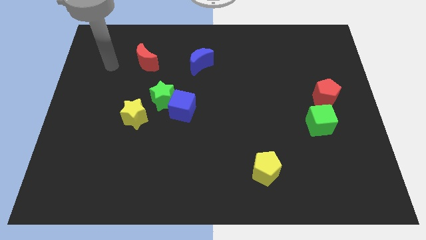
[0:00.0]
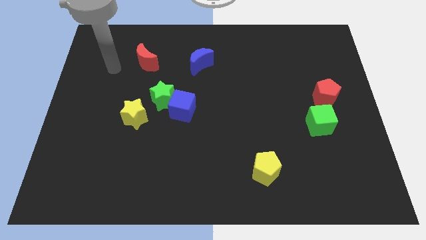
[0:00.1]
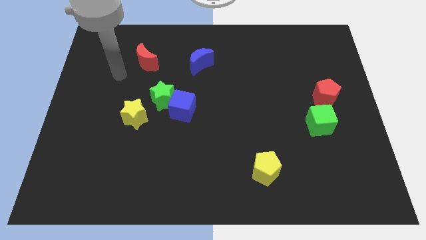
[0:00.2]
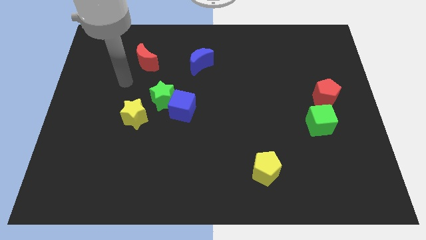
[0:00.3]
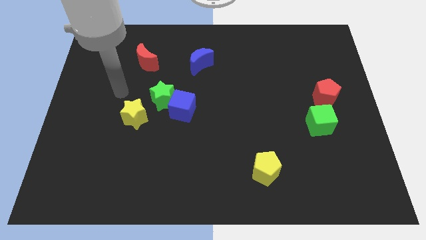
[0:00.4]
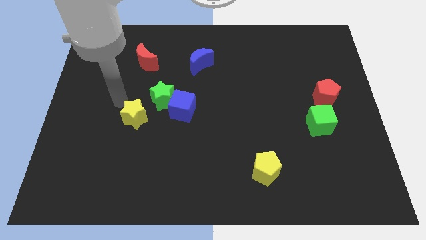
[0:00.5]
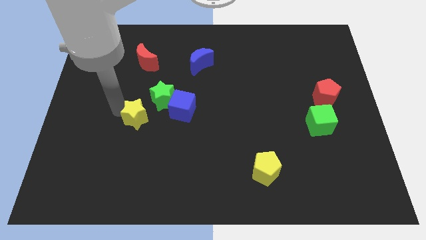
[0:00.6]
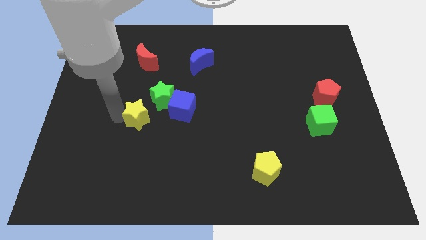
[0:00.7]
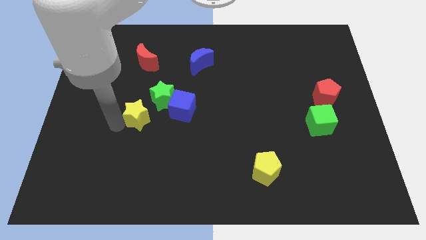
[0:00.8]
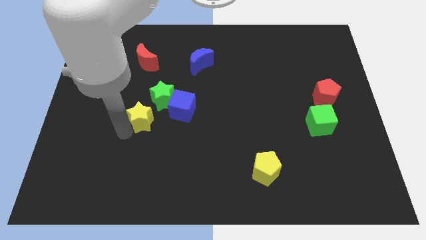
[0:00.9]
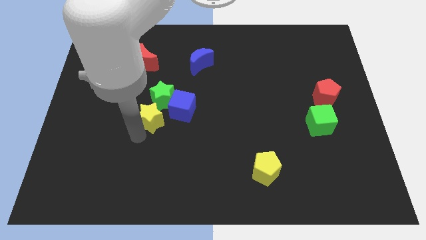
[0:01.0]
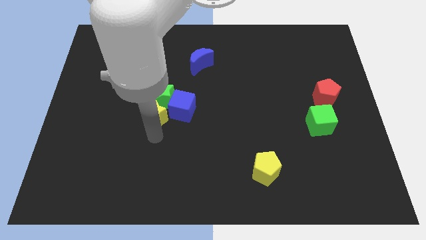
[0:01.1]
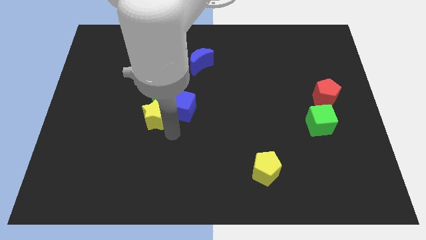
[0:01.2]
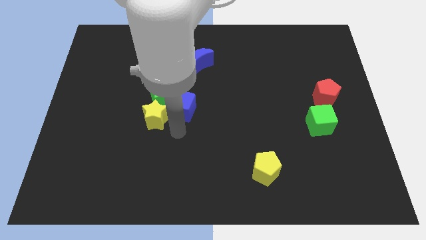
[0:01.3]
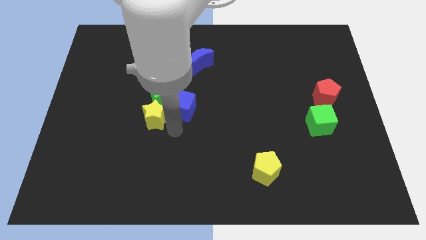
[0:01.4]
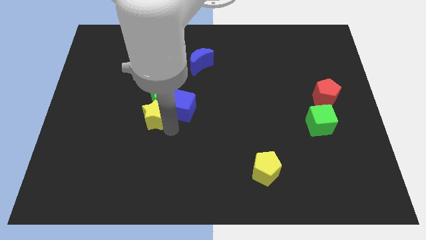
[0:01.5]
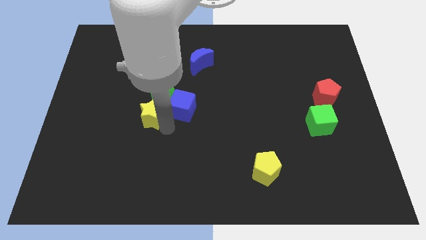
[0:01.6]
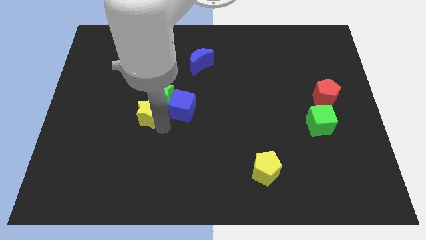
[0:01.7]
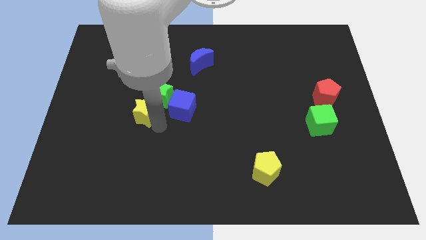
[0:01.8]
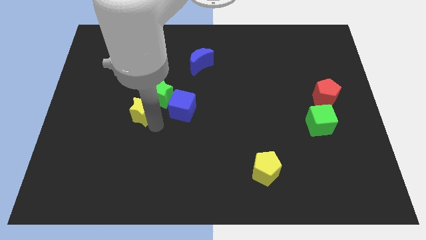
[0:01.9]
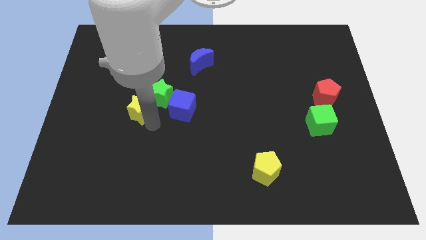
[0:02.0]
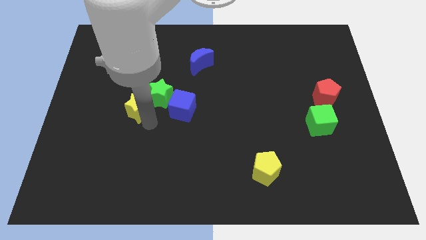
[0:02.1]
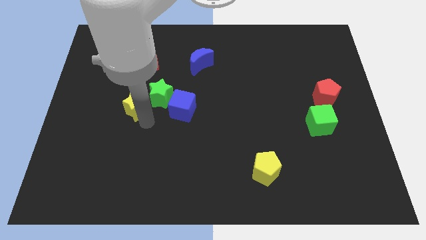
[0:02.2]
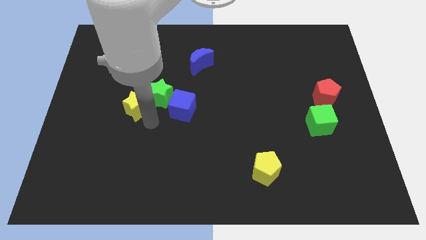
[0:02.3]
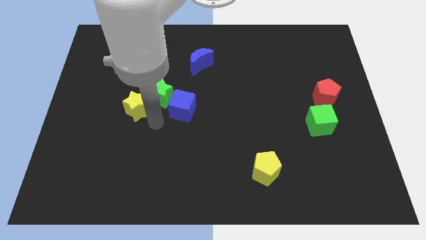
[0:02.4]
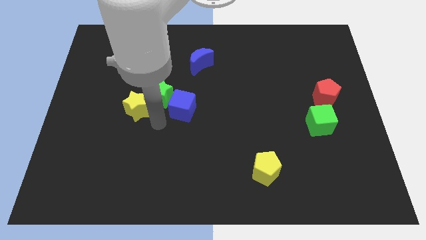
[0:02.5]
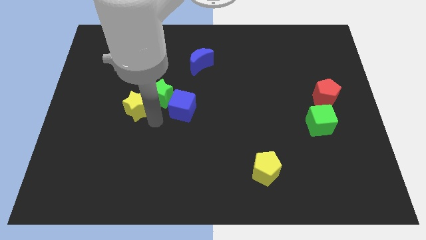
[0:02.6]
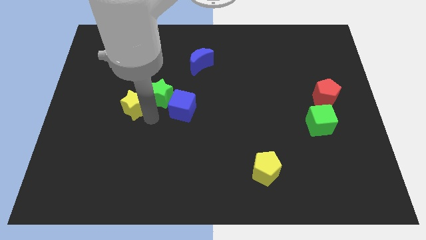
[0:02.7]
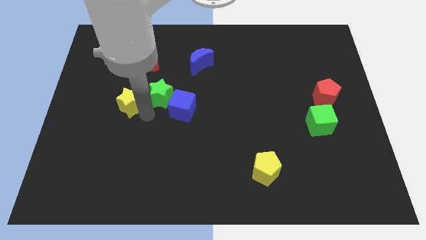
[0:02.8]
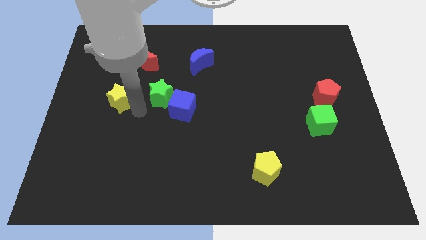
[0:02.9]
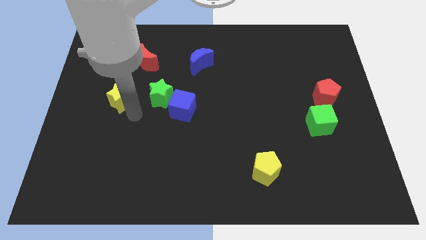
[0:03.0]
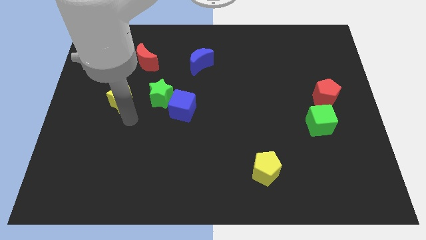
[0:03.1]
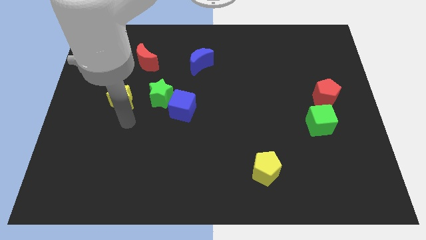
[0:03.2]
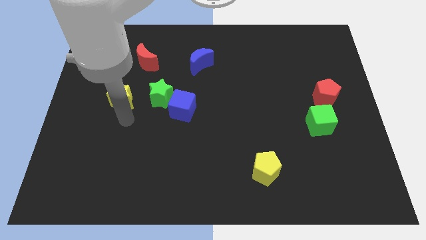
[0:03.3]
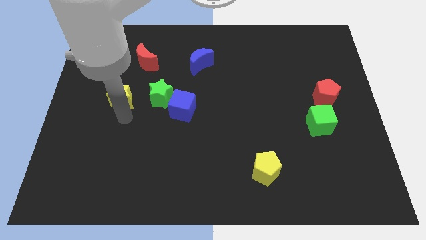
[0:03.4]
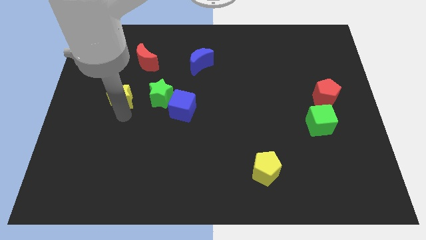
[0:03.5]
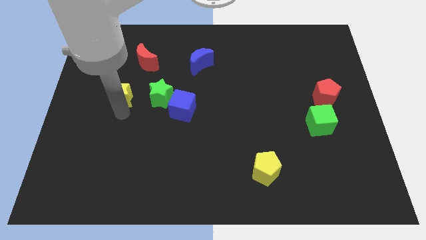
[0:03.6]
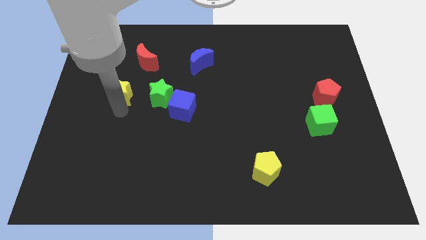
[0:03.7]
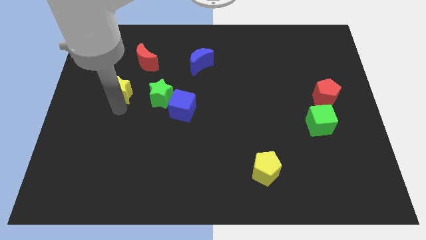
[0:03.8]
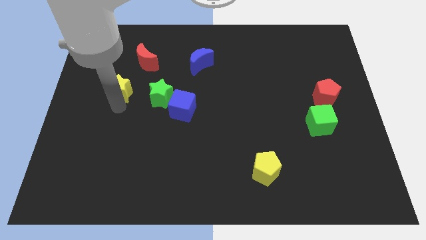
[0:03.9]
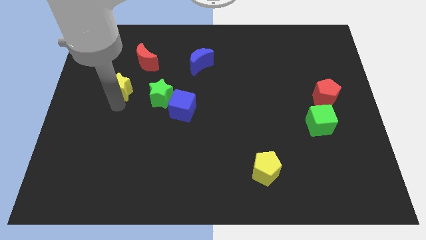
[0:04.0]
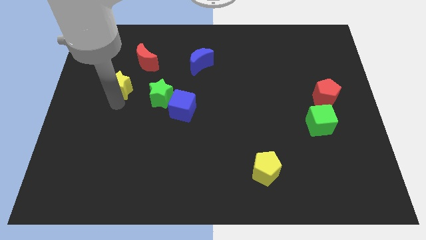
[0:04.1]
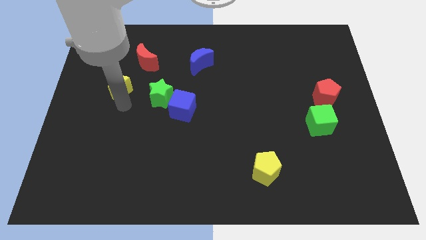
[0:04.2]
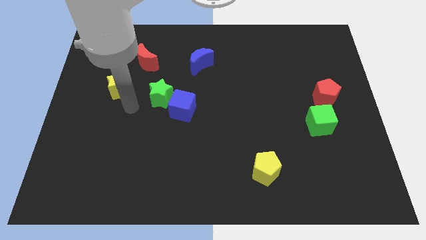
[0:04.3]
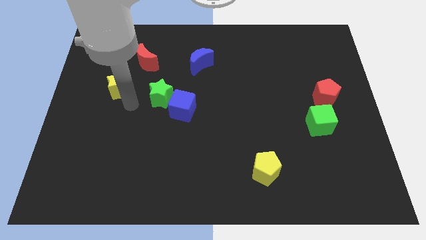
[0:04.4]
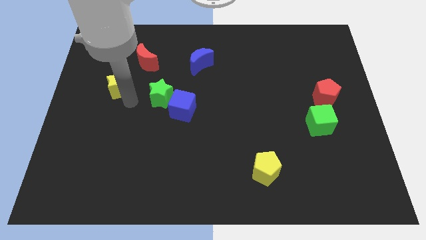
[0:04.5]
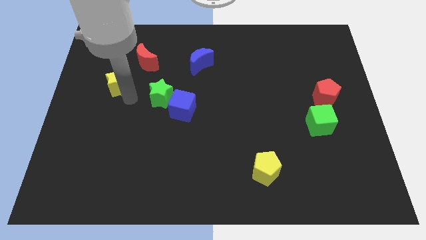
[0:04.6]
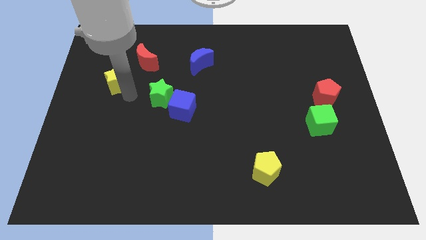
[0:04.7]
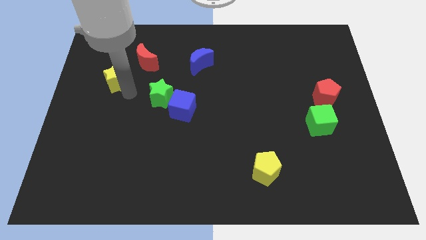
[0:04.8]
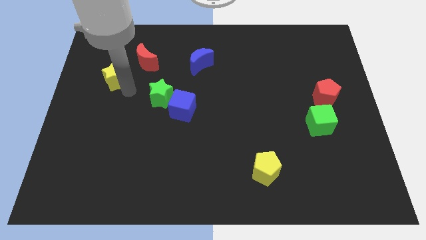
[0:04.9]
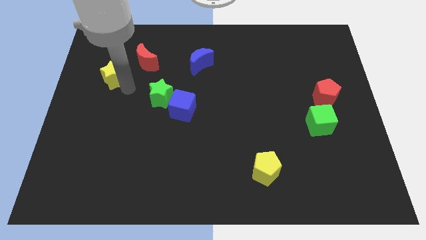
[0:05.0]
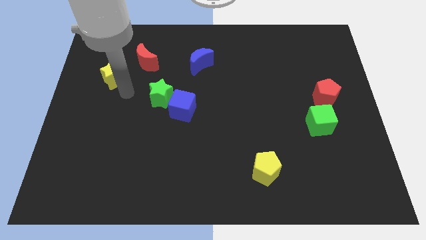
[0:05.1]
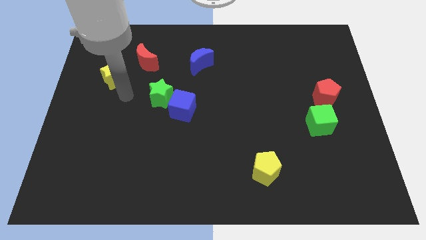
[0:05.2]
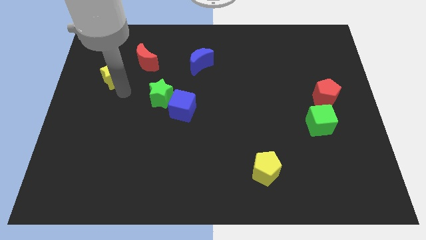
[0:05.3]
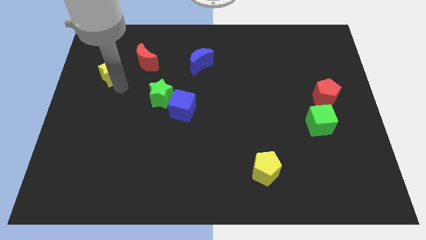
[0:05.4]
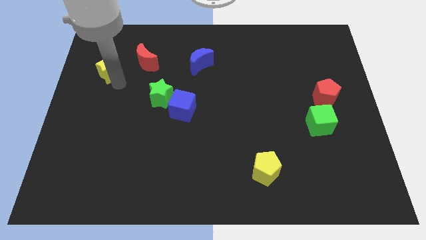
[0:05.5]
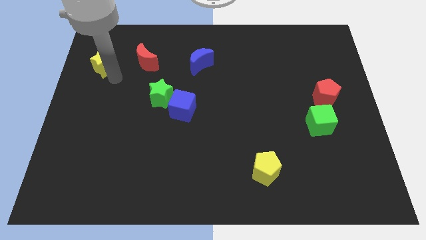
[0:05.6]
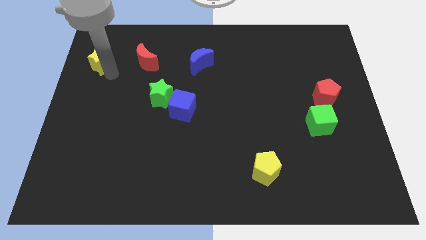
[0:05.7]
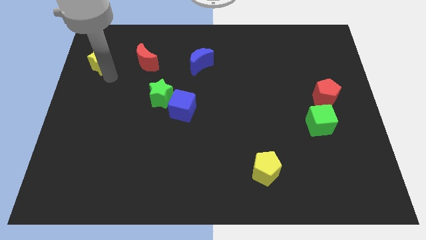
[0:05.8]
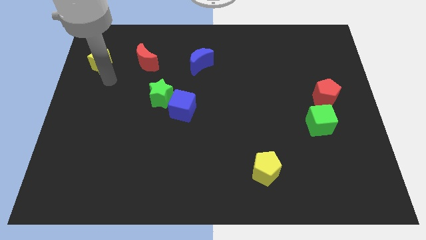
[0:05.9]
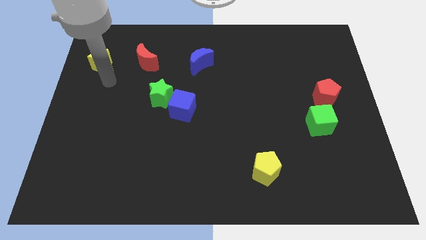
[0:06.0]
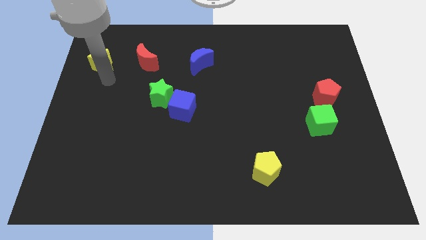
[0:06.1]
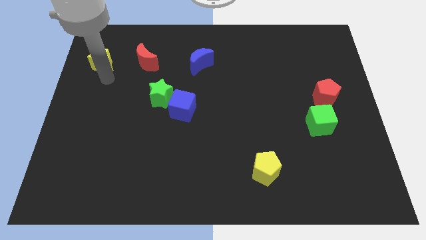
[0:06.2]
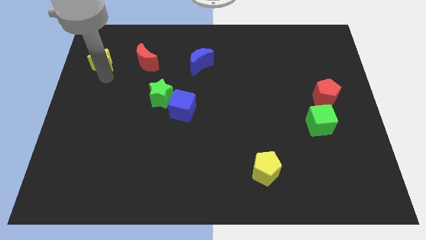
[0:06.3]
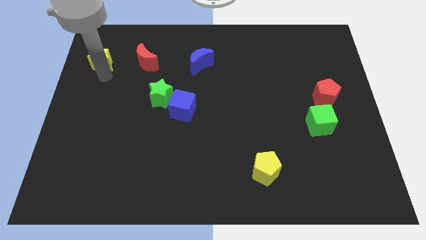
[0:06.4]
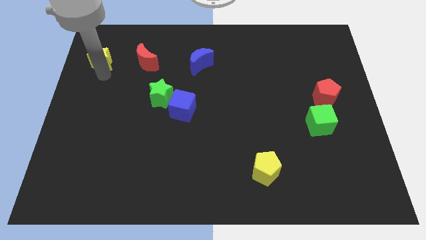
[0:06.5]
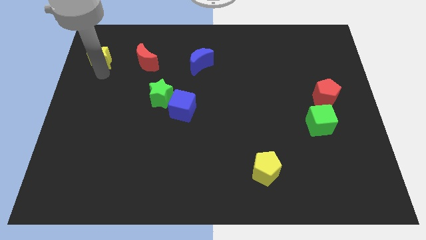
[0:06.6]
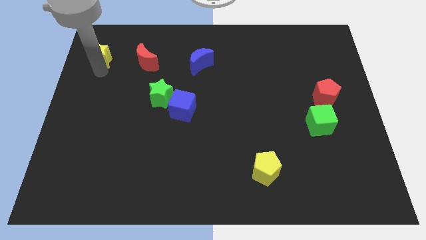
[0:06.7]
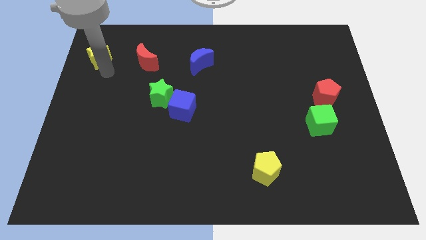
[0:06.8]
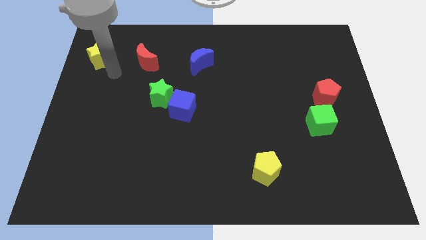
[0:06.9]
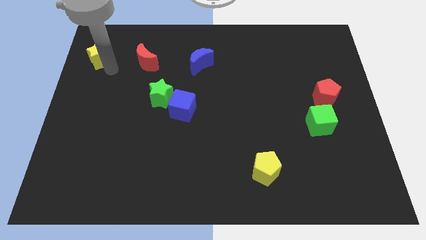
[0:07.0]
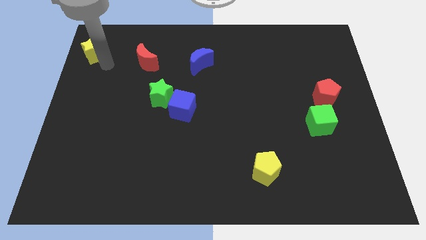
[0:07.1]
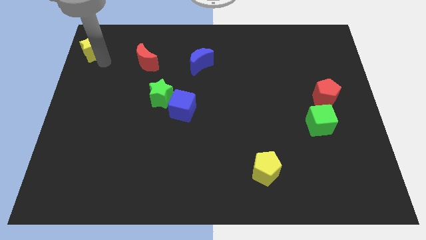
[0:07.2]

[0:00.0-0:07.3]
move the yellow star to the upper left corner
